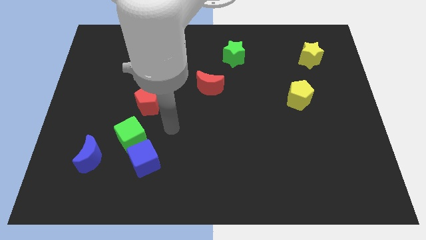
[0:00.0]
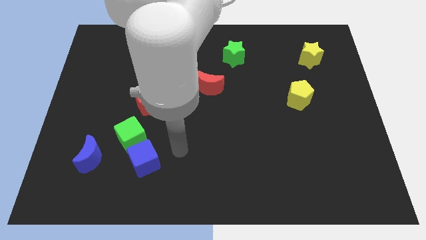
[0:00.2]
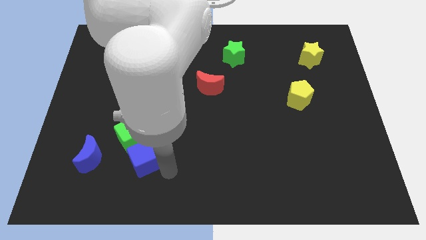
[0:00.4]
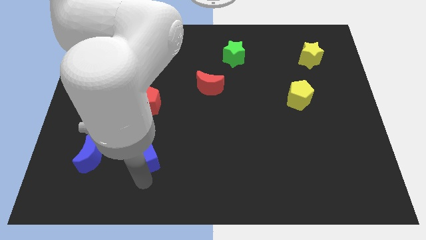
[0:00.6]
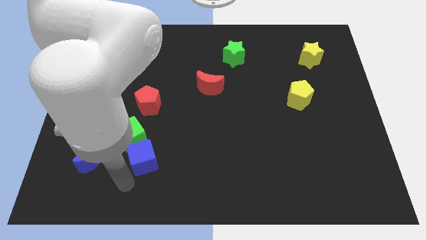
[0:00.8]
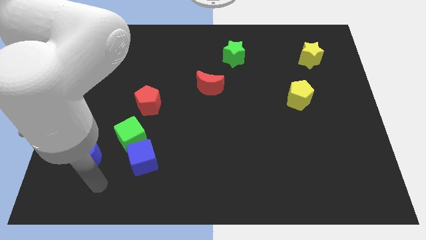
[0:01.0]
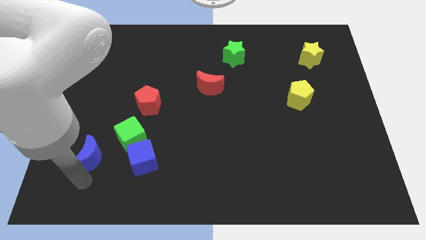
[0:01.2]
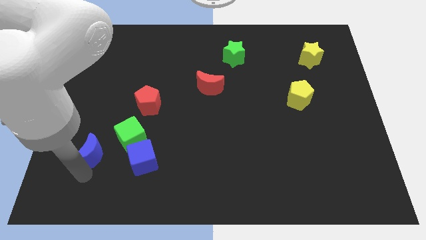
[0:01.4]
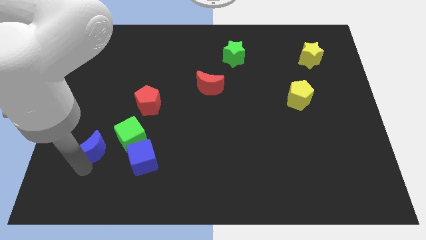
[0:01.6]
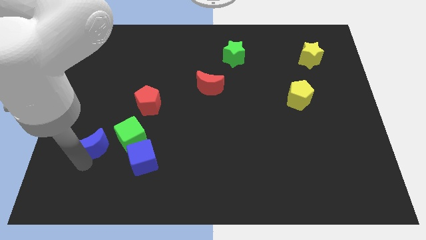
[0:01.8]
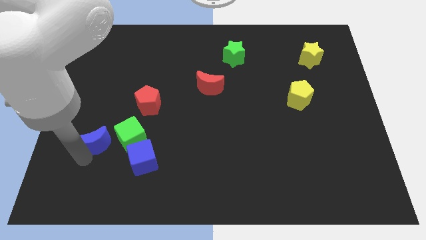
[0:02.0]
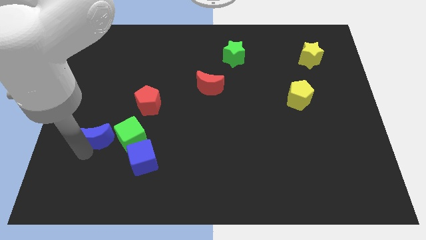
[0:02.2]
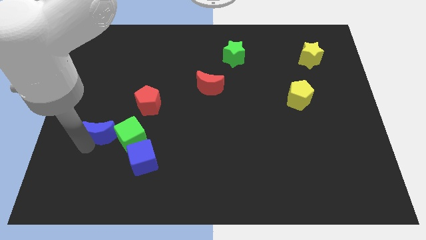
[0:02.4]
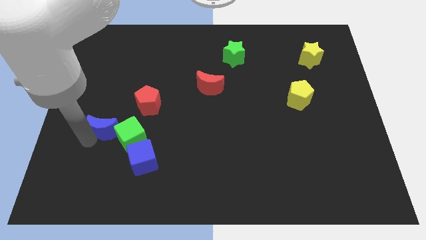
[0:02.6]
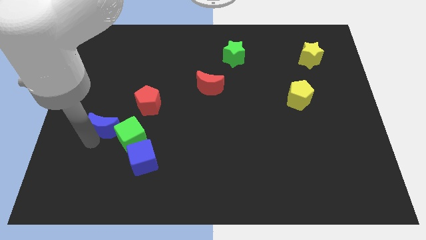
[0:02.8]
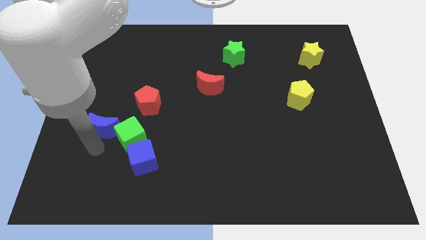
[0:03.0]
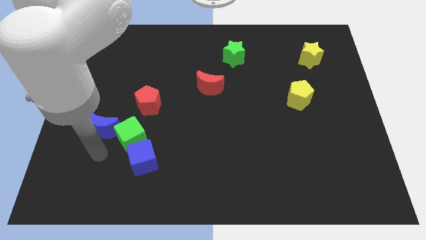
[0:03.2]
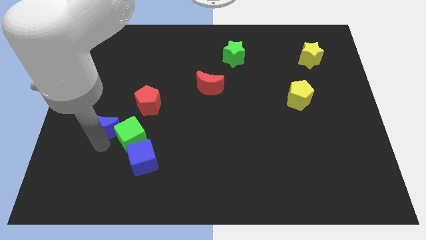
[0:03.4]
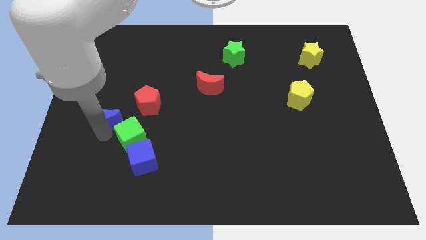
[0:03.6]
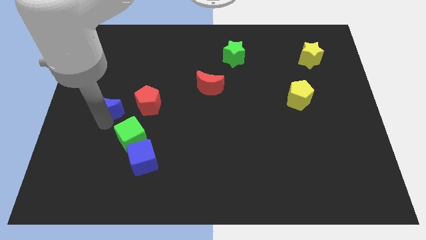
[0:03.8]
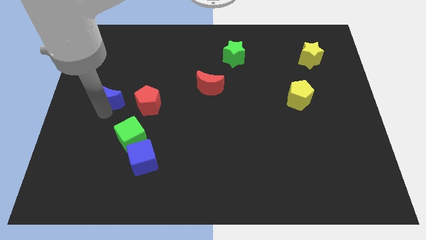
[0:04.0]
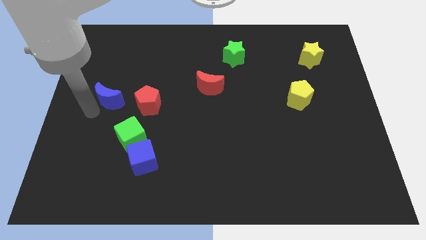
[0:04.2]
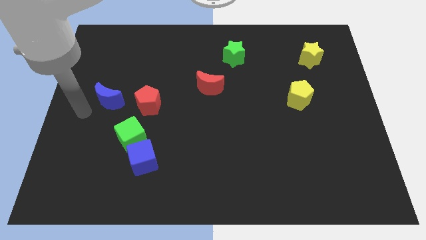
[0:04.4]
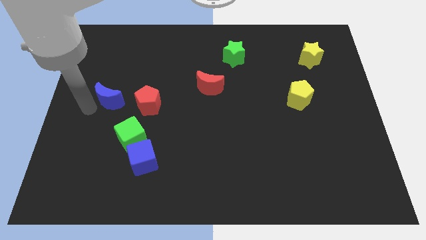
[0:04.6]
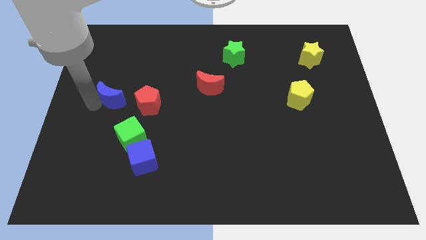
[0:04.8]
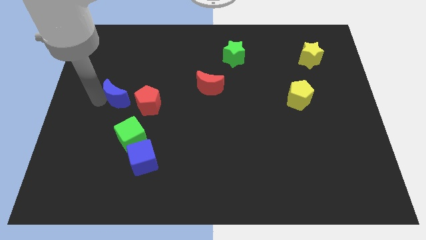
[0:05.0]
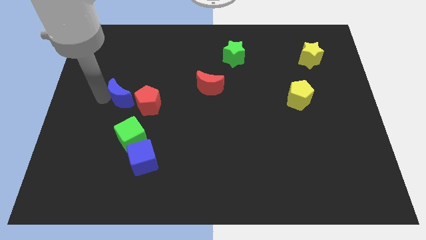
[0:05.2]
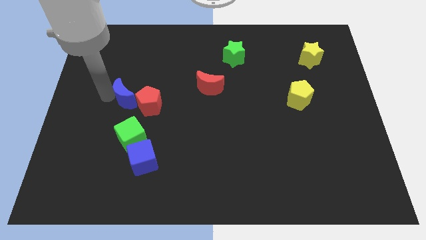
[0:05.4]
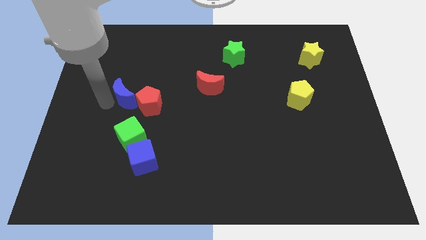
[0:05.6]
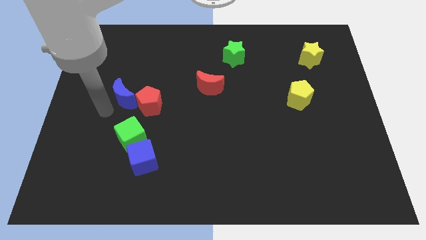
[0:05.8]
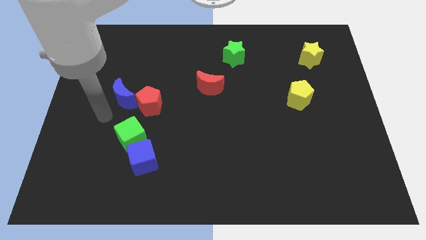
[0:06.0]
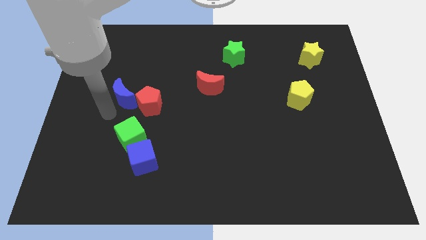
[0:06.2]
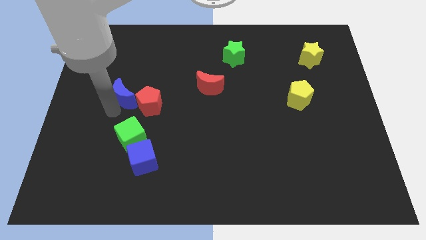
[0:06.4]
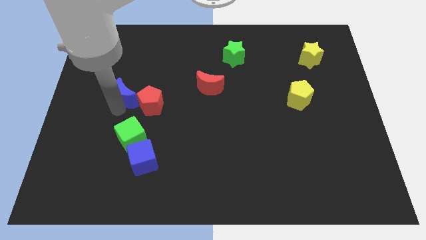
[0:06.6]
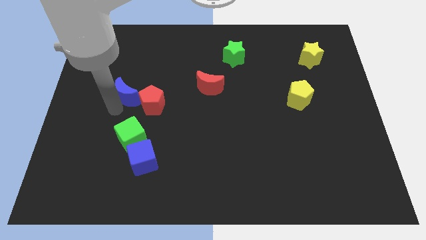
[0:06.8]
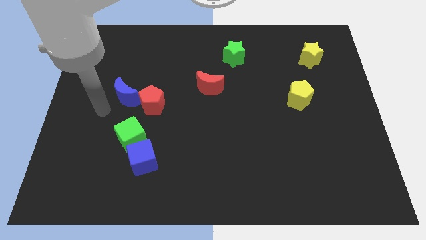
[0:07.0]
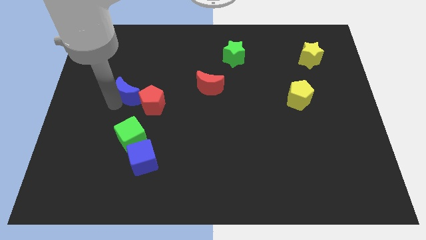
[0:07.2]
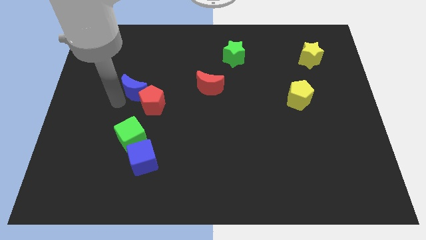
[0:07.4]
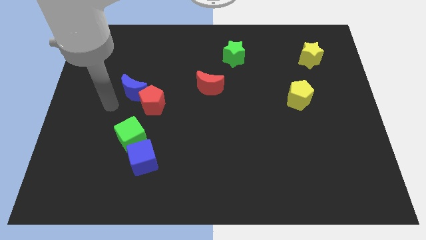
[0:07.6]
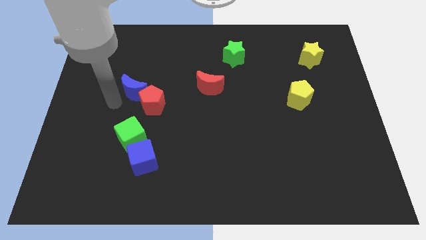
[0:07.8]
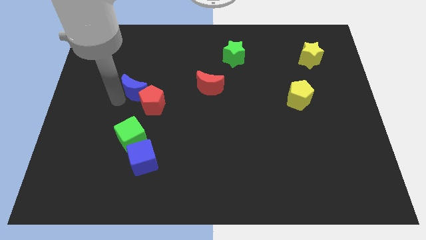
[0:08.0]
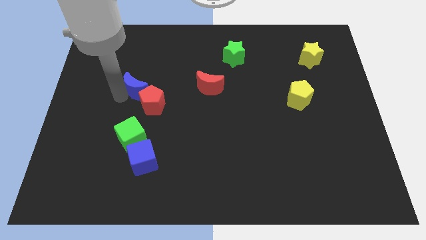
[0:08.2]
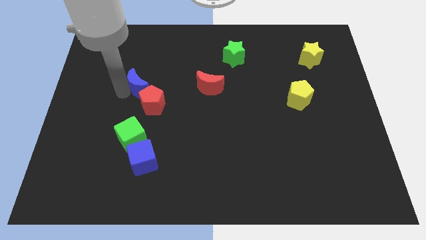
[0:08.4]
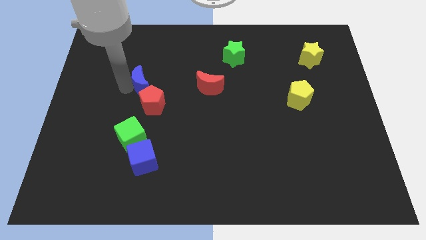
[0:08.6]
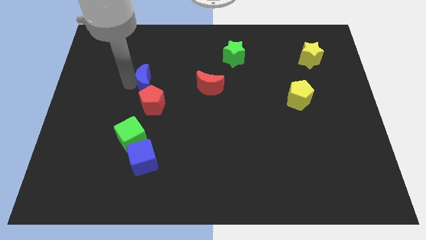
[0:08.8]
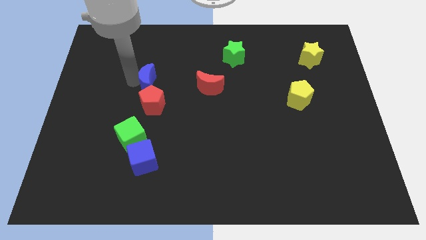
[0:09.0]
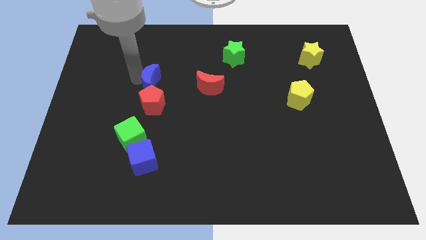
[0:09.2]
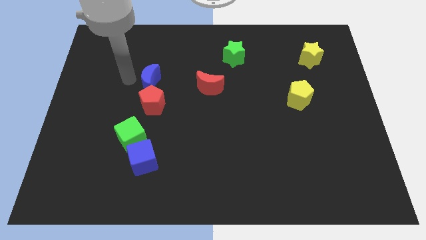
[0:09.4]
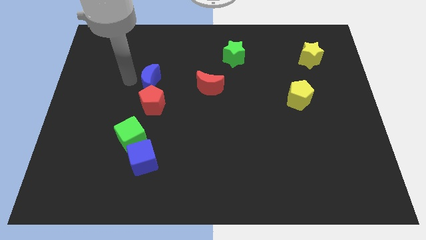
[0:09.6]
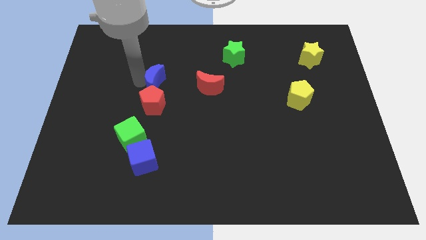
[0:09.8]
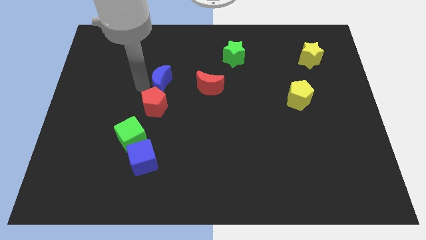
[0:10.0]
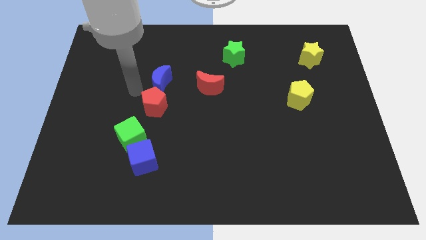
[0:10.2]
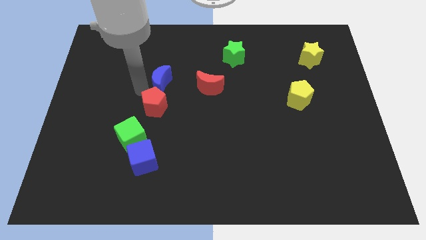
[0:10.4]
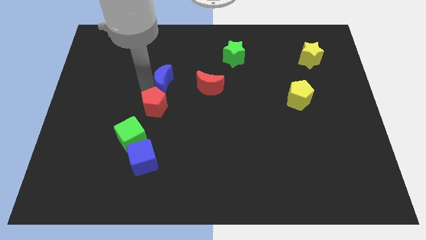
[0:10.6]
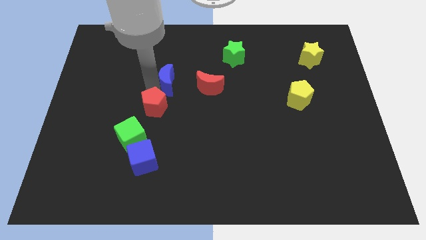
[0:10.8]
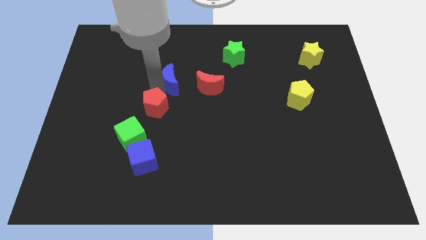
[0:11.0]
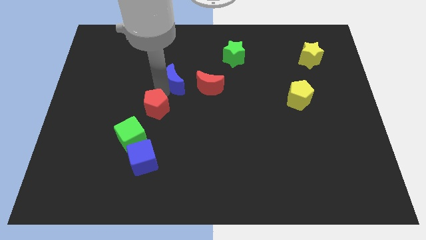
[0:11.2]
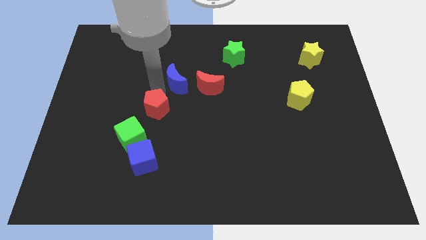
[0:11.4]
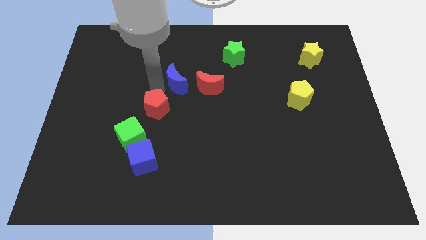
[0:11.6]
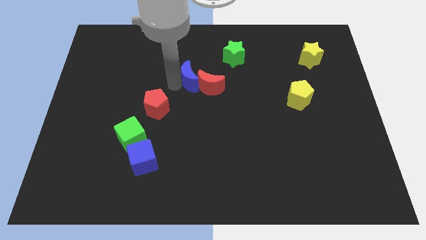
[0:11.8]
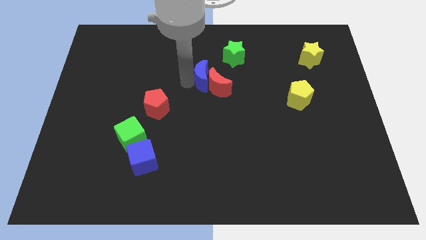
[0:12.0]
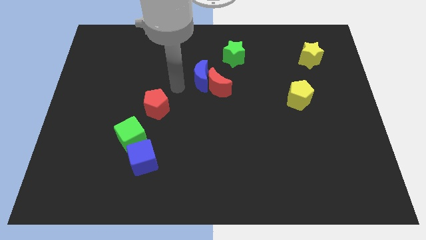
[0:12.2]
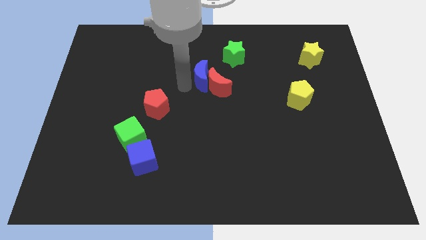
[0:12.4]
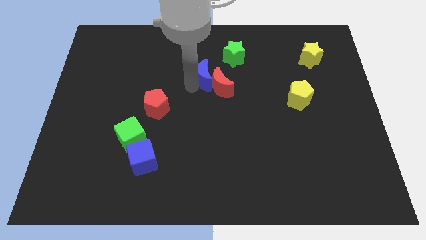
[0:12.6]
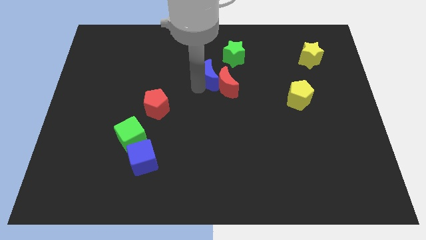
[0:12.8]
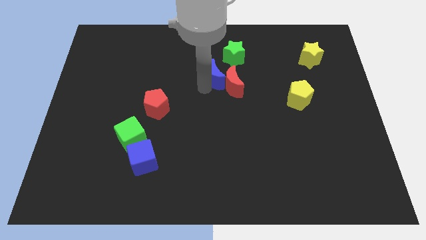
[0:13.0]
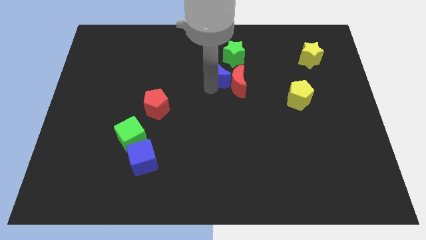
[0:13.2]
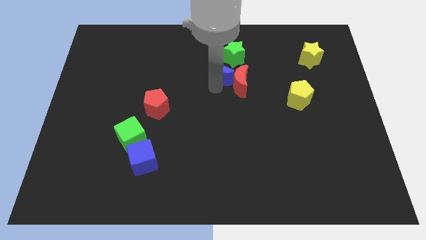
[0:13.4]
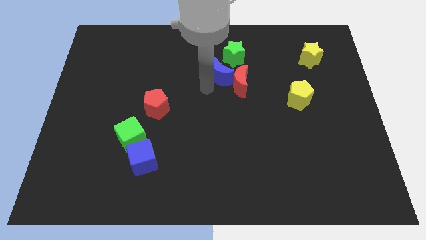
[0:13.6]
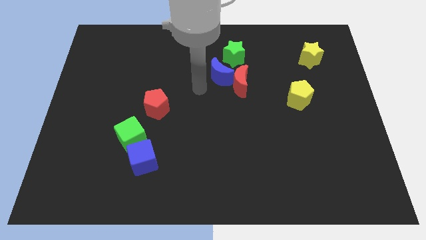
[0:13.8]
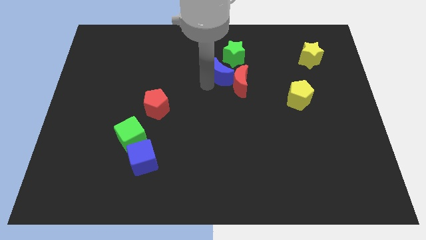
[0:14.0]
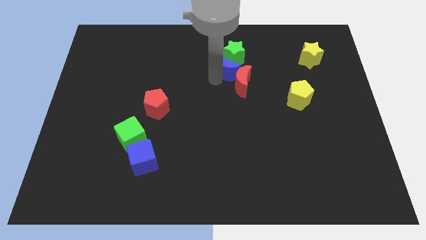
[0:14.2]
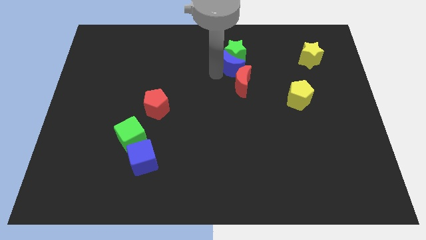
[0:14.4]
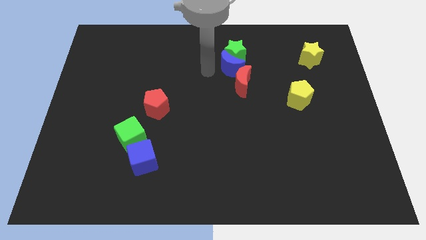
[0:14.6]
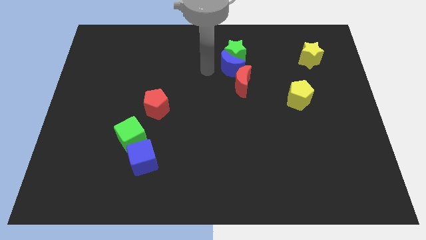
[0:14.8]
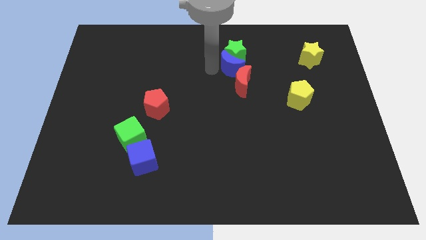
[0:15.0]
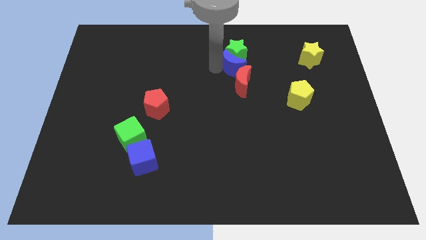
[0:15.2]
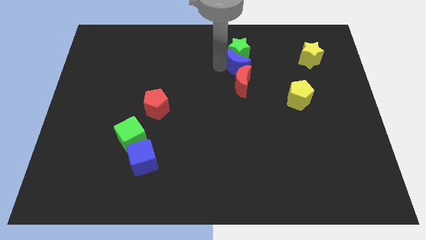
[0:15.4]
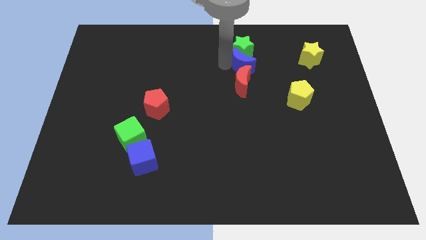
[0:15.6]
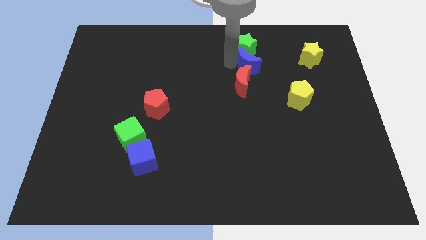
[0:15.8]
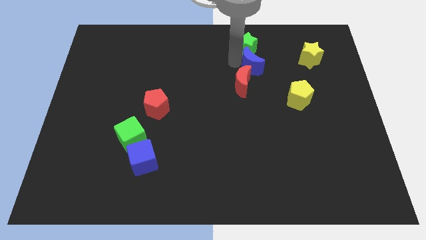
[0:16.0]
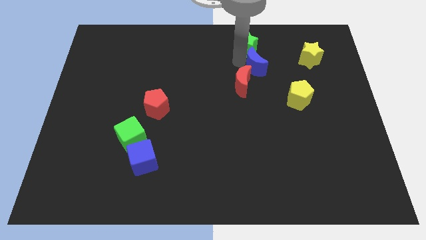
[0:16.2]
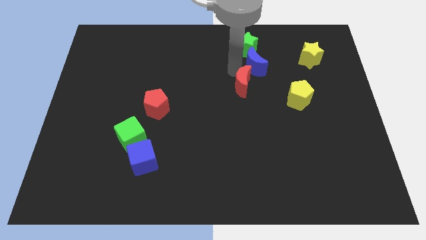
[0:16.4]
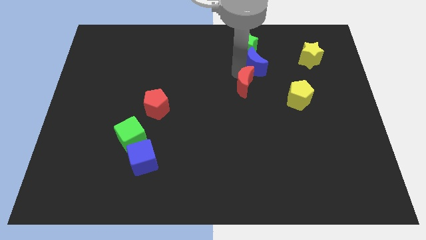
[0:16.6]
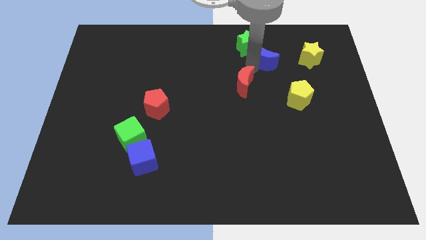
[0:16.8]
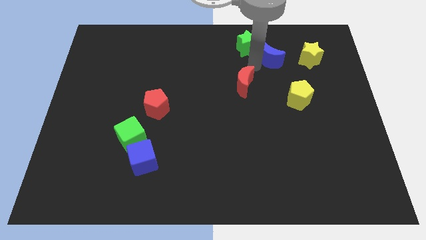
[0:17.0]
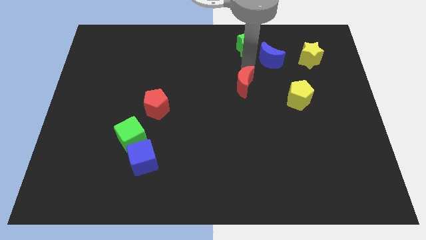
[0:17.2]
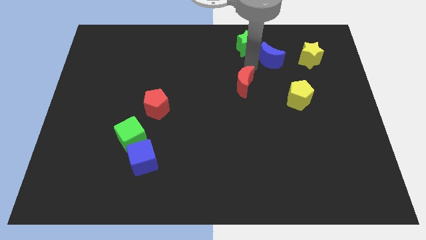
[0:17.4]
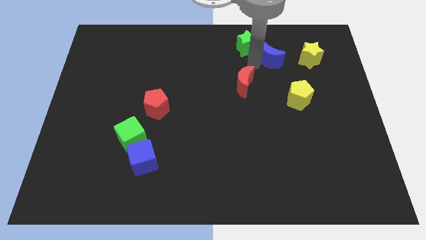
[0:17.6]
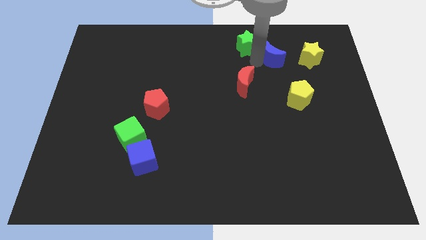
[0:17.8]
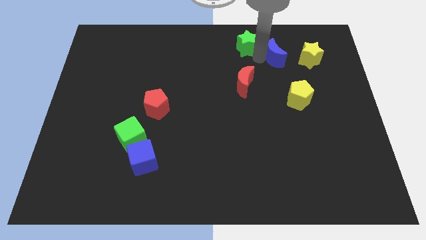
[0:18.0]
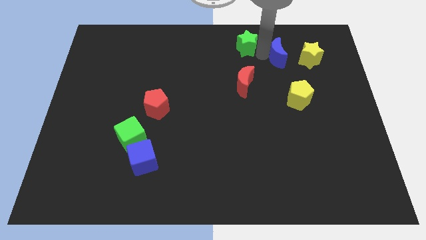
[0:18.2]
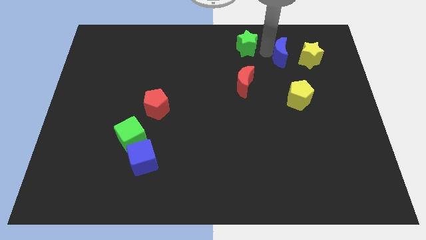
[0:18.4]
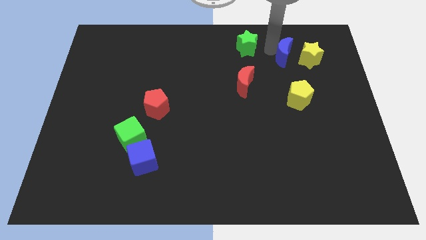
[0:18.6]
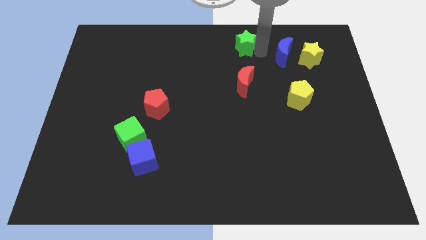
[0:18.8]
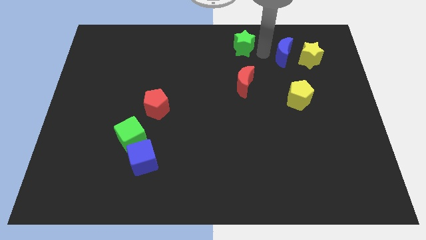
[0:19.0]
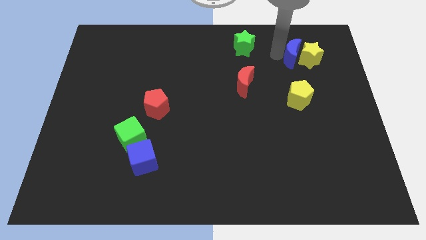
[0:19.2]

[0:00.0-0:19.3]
push the blue moon to the yellow star
